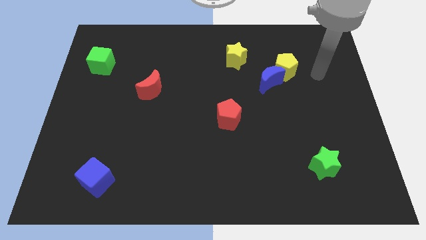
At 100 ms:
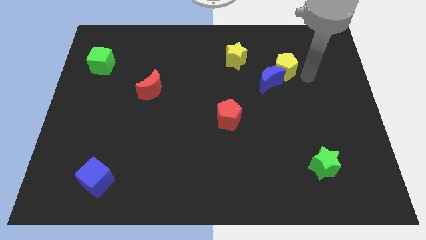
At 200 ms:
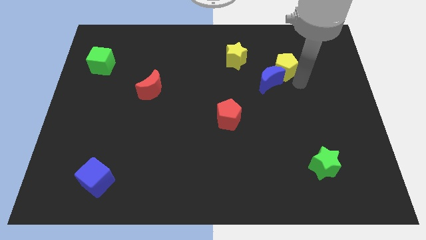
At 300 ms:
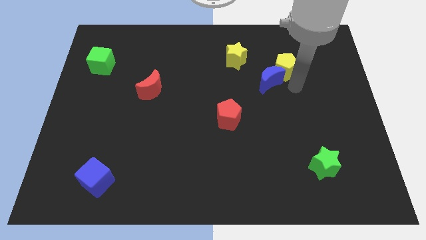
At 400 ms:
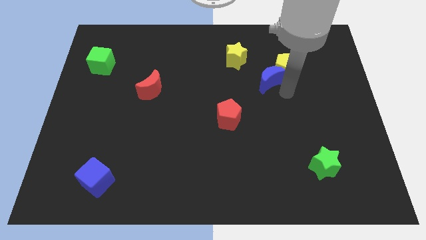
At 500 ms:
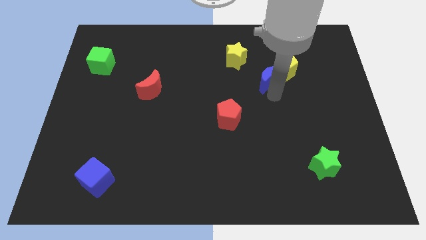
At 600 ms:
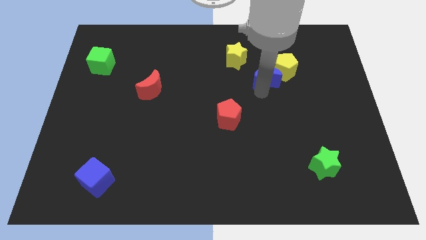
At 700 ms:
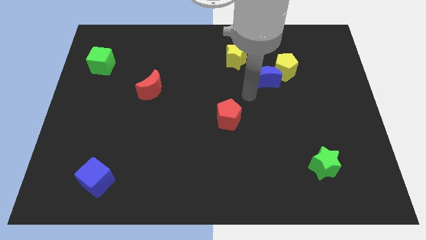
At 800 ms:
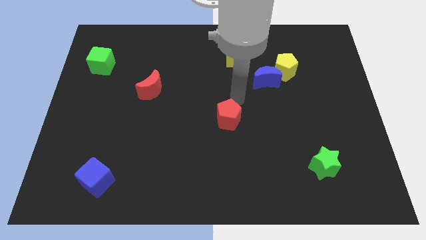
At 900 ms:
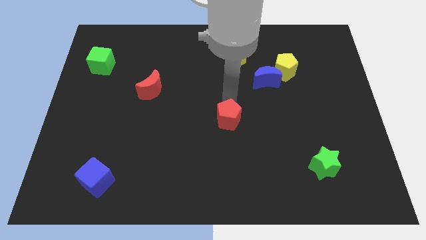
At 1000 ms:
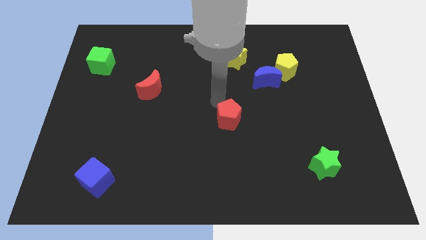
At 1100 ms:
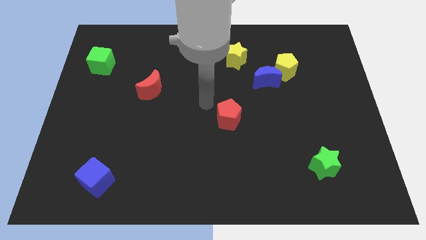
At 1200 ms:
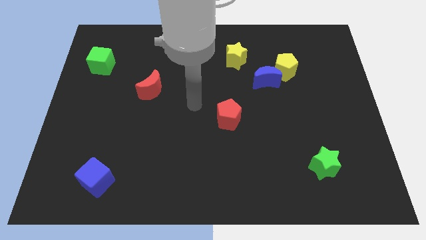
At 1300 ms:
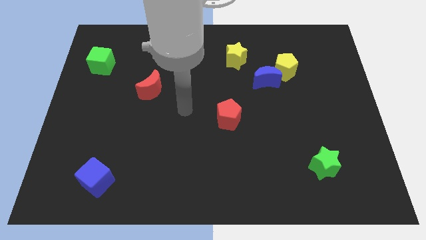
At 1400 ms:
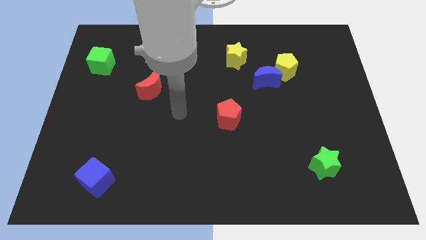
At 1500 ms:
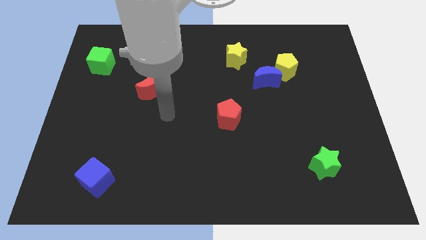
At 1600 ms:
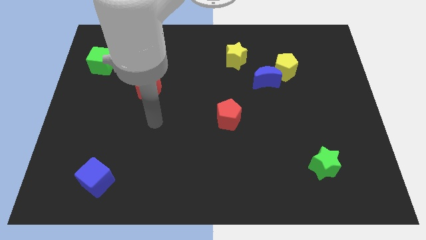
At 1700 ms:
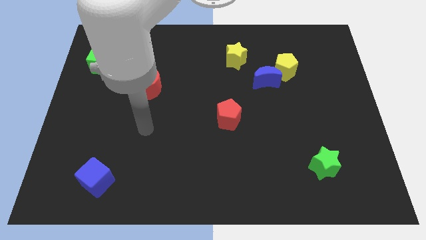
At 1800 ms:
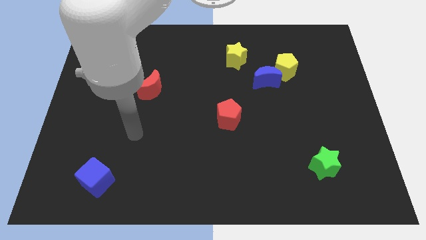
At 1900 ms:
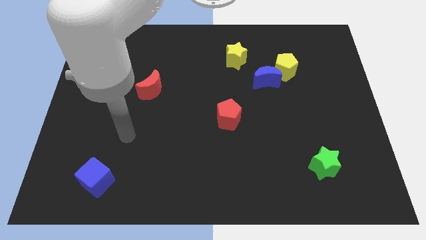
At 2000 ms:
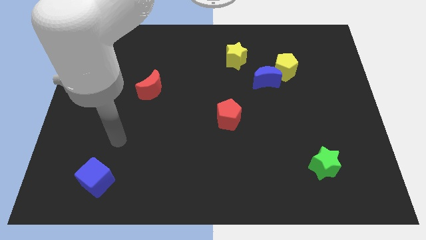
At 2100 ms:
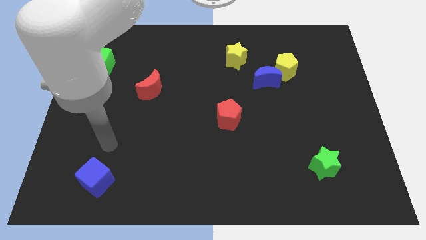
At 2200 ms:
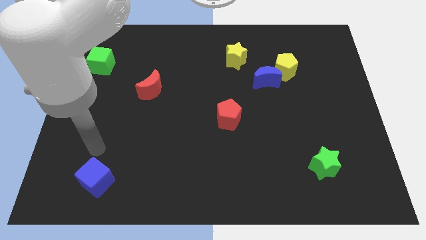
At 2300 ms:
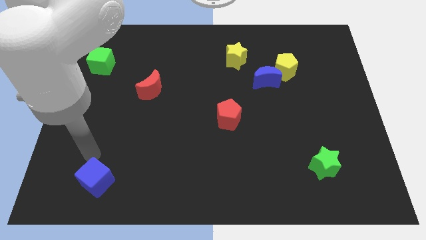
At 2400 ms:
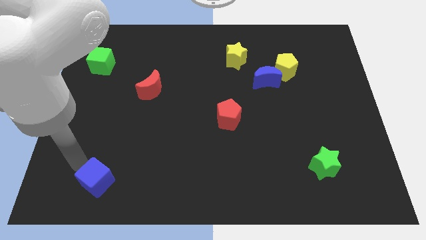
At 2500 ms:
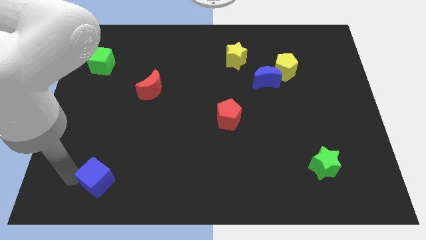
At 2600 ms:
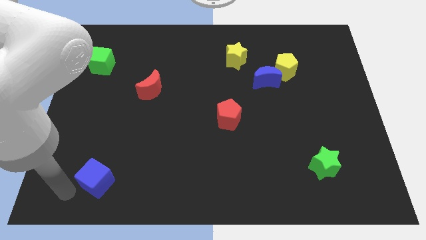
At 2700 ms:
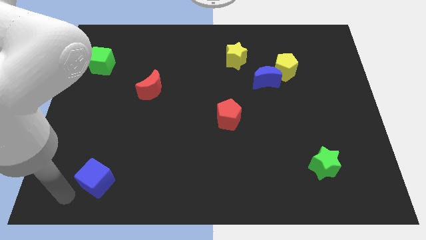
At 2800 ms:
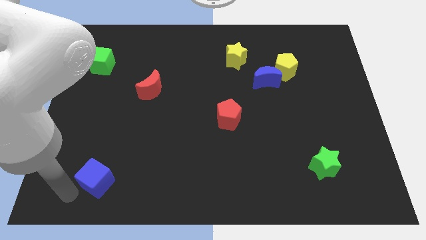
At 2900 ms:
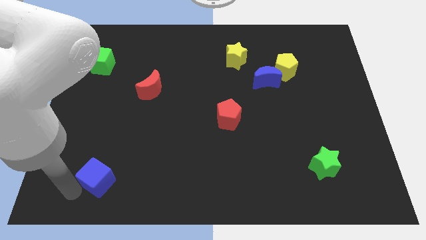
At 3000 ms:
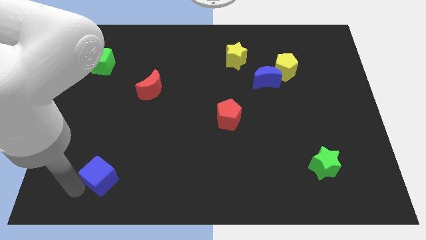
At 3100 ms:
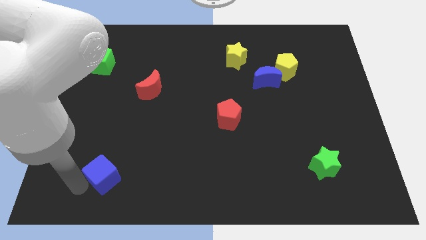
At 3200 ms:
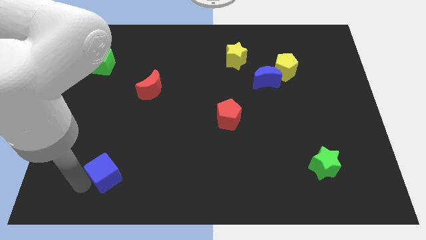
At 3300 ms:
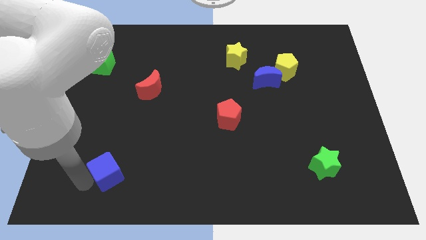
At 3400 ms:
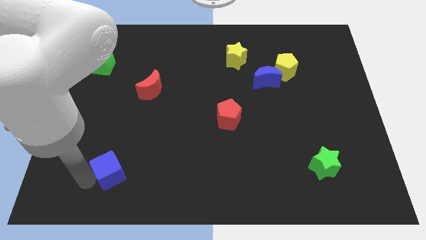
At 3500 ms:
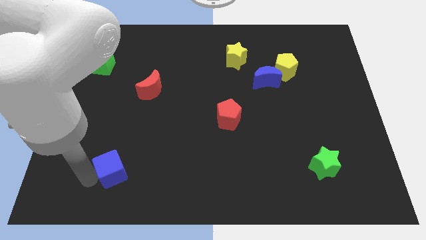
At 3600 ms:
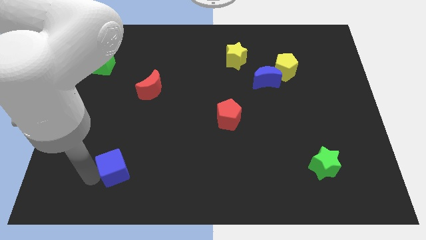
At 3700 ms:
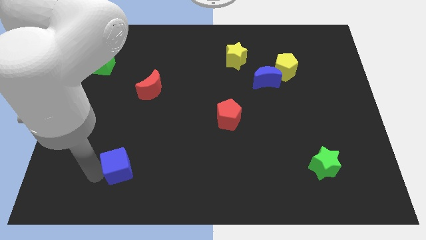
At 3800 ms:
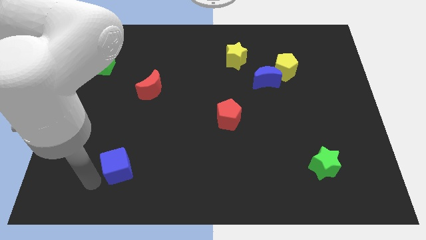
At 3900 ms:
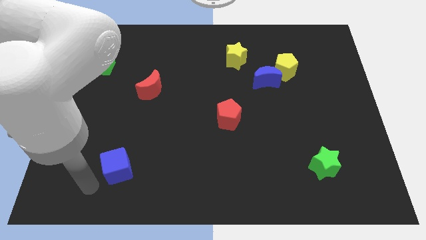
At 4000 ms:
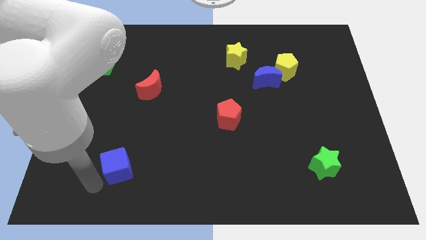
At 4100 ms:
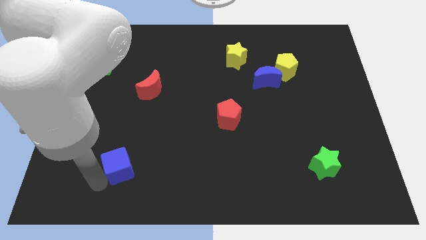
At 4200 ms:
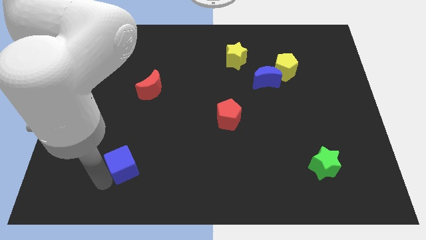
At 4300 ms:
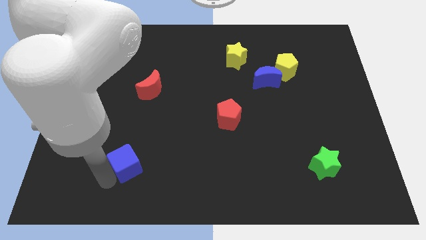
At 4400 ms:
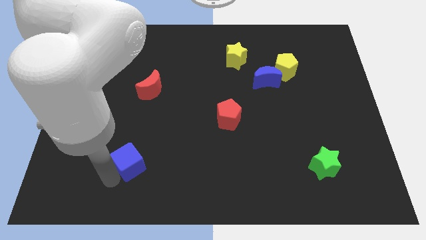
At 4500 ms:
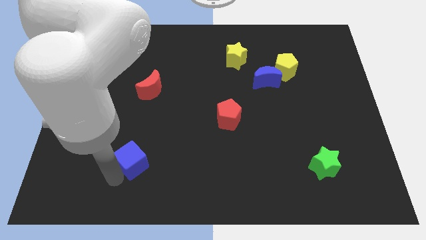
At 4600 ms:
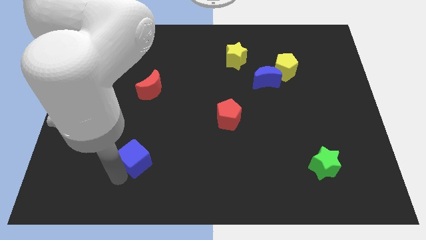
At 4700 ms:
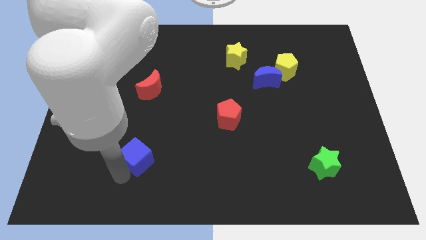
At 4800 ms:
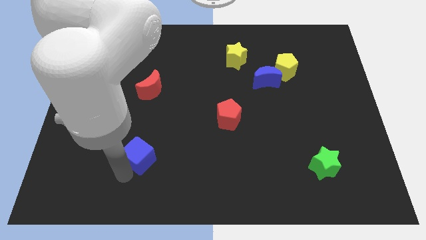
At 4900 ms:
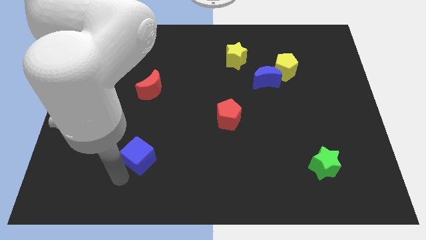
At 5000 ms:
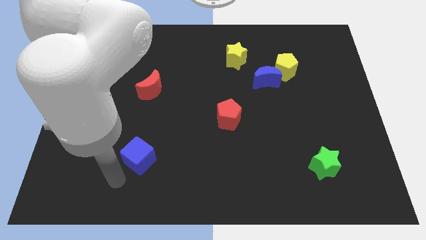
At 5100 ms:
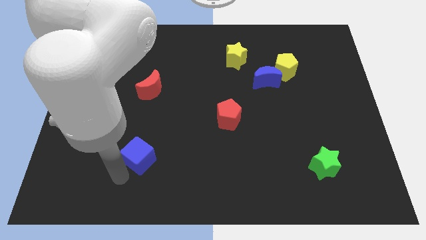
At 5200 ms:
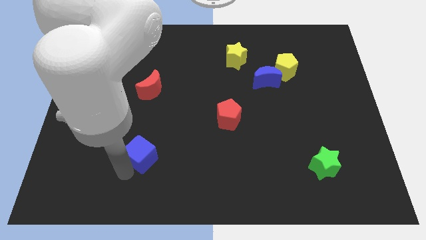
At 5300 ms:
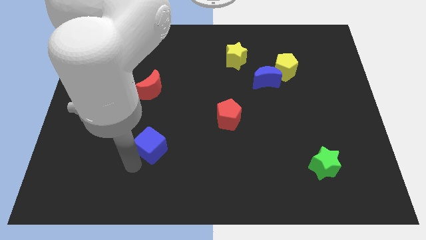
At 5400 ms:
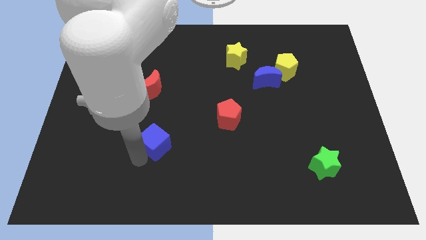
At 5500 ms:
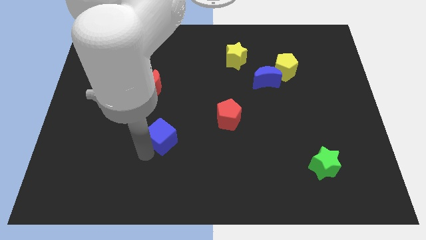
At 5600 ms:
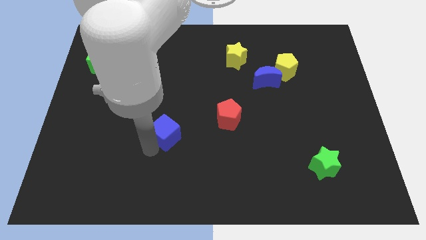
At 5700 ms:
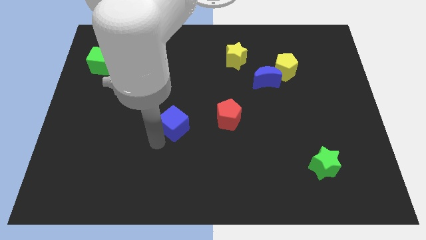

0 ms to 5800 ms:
move the blue cube to the center of the board

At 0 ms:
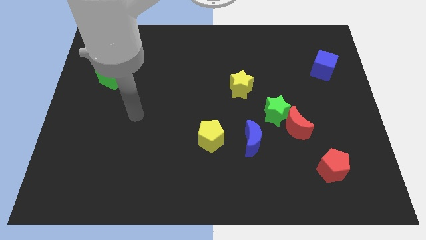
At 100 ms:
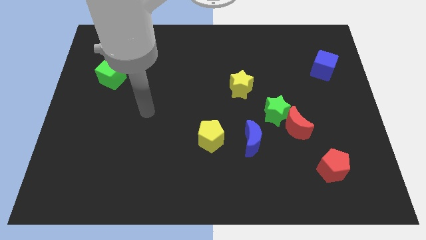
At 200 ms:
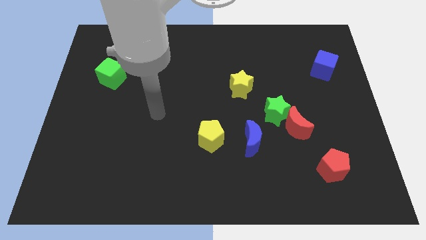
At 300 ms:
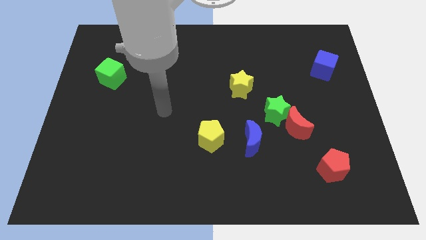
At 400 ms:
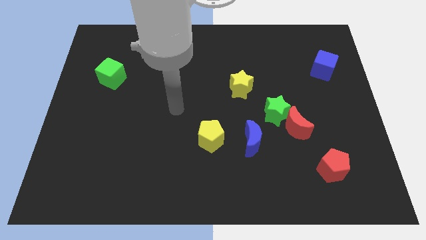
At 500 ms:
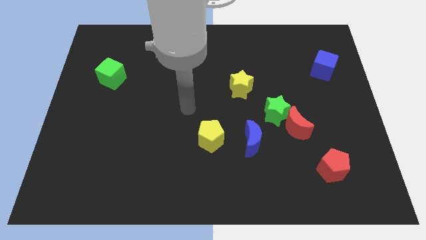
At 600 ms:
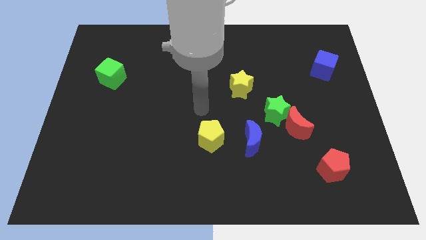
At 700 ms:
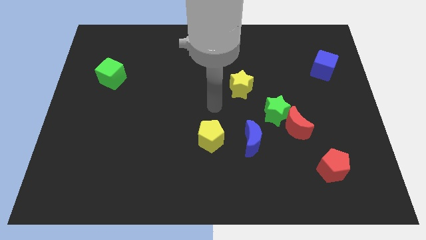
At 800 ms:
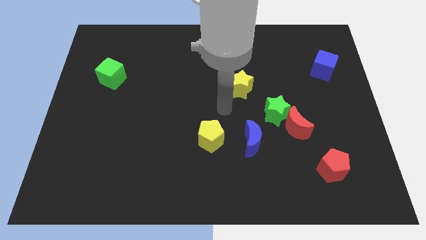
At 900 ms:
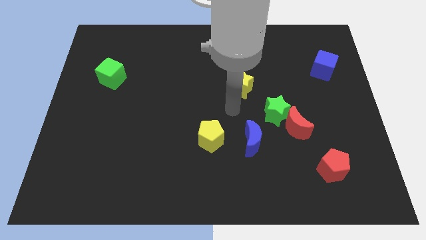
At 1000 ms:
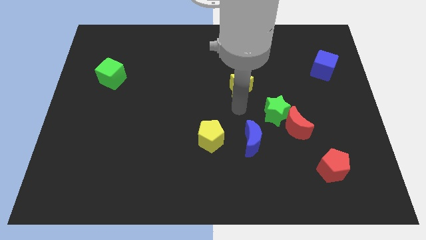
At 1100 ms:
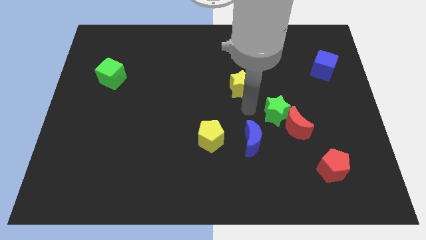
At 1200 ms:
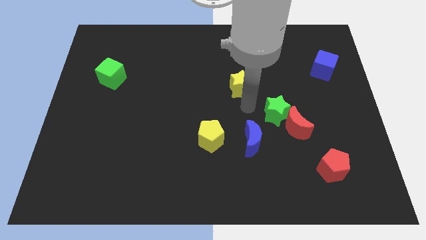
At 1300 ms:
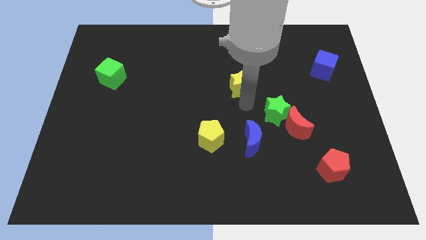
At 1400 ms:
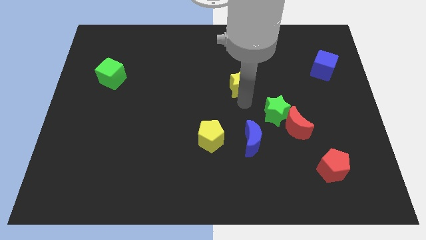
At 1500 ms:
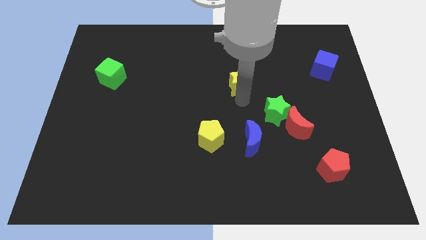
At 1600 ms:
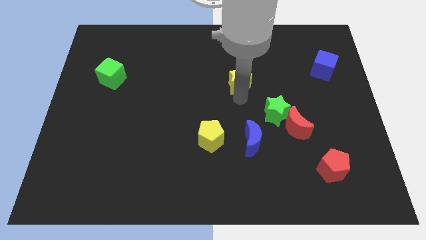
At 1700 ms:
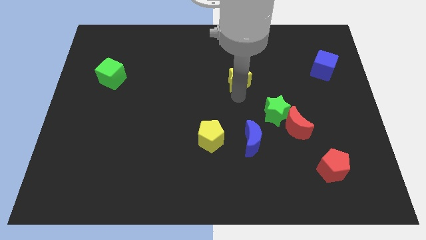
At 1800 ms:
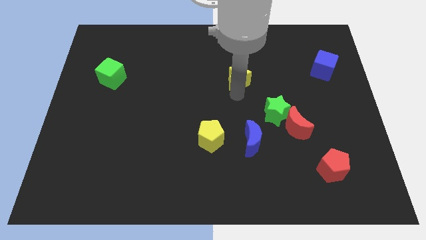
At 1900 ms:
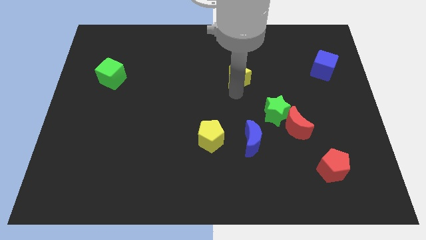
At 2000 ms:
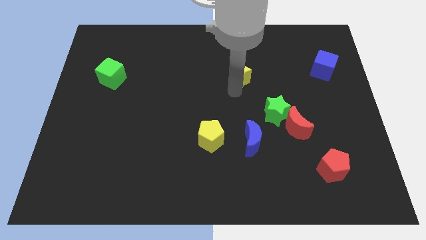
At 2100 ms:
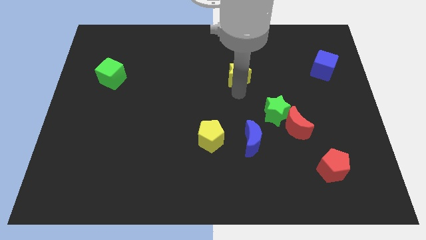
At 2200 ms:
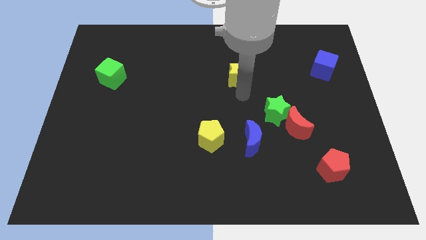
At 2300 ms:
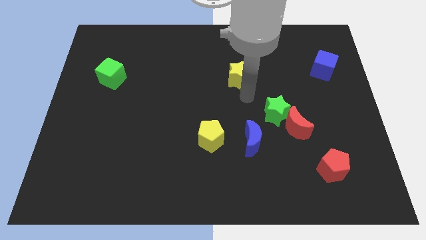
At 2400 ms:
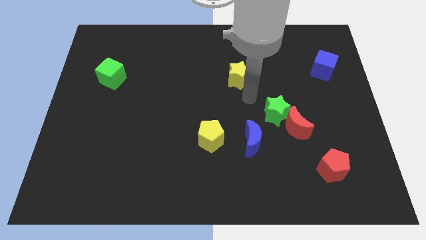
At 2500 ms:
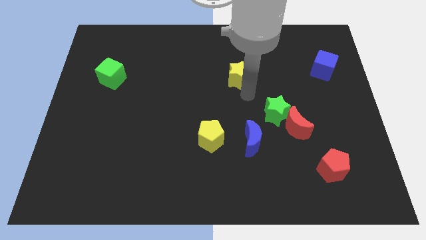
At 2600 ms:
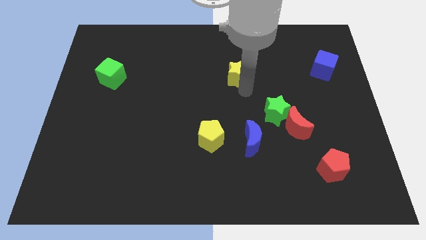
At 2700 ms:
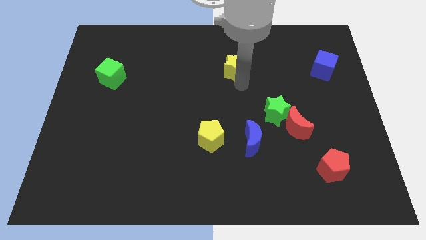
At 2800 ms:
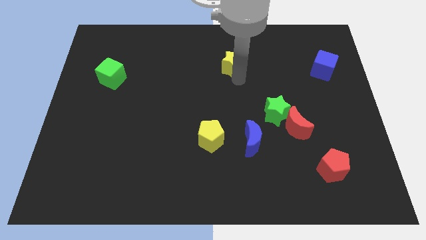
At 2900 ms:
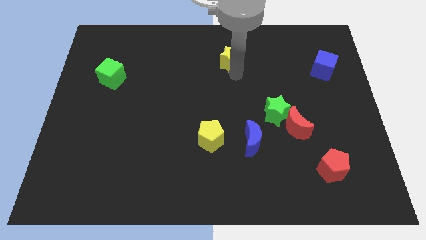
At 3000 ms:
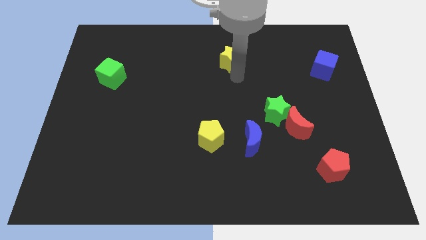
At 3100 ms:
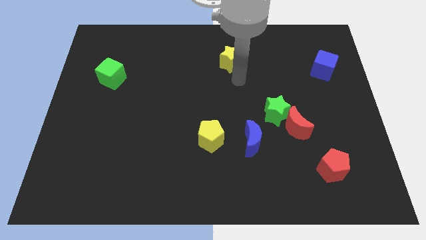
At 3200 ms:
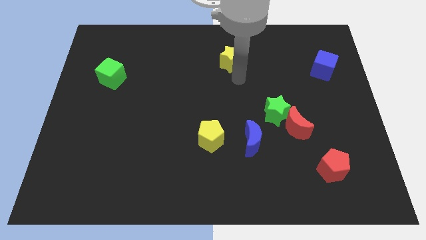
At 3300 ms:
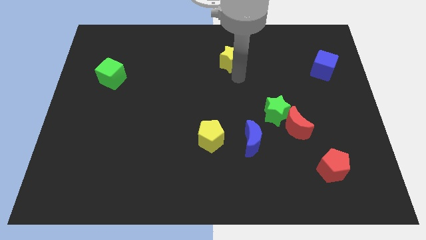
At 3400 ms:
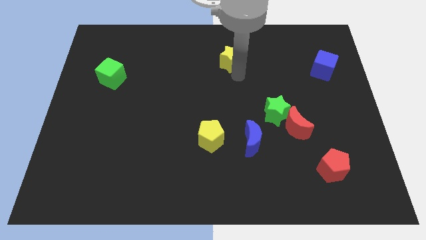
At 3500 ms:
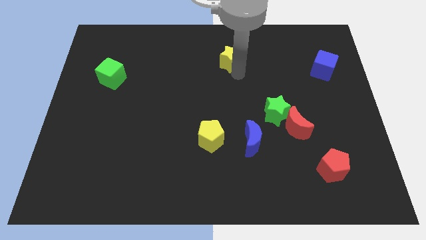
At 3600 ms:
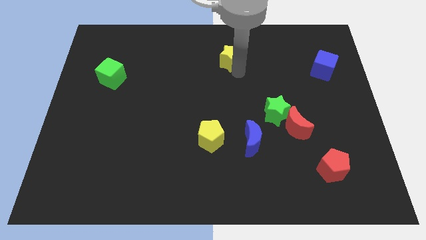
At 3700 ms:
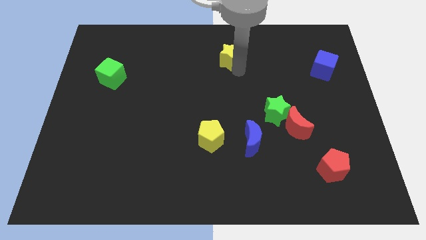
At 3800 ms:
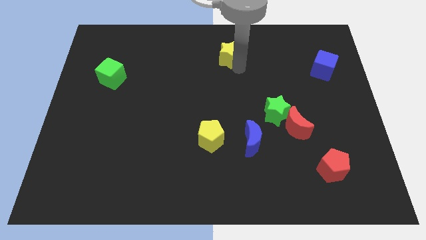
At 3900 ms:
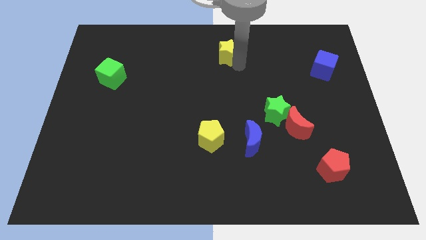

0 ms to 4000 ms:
move the yellow star to the top side
